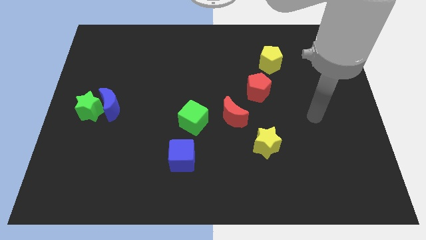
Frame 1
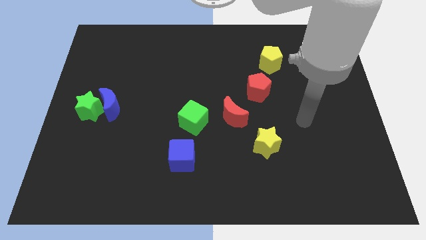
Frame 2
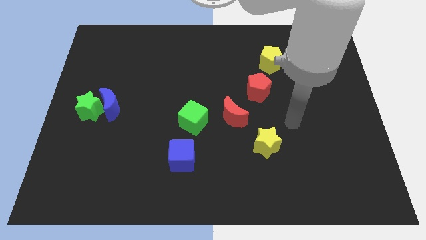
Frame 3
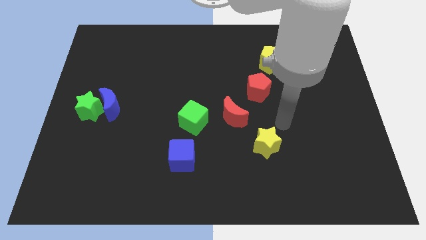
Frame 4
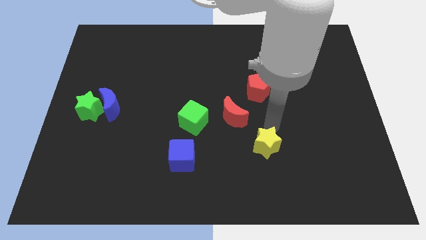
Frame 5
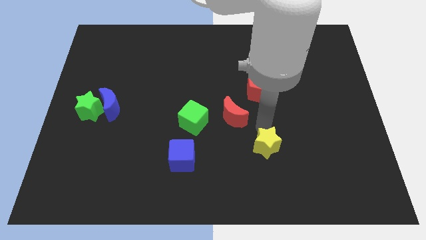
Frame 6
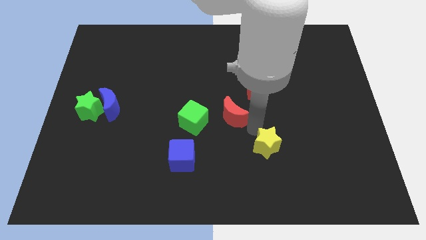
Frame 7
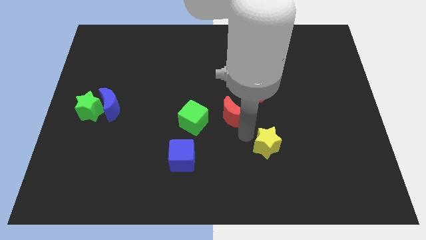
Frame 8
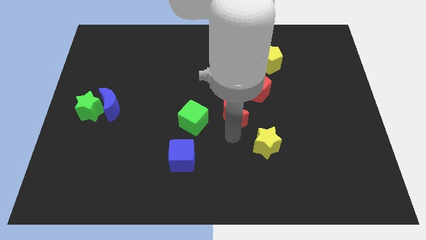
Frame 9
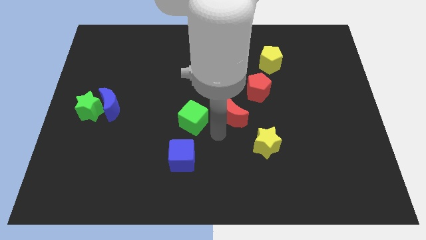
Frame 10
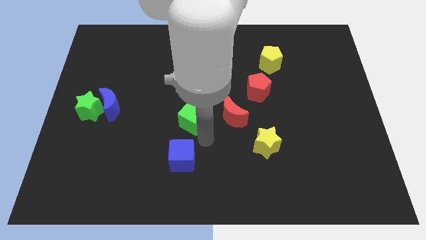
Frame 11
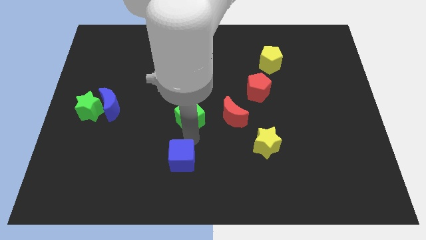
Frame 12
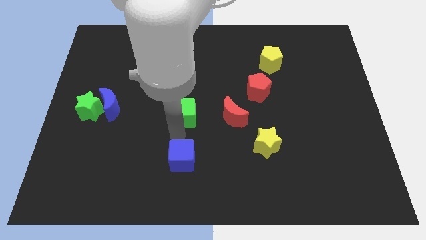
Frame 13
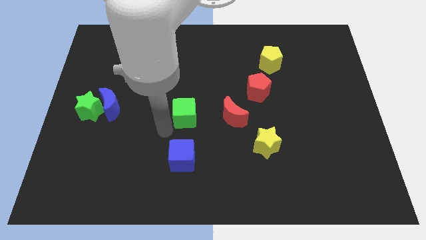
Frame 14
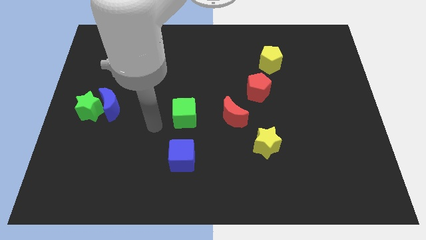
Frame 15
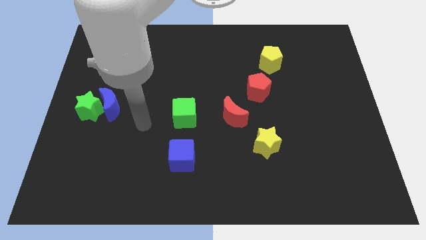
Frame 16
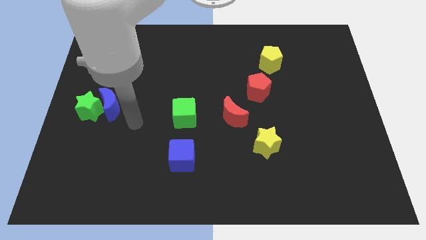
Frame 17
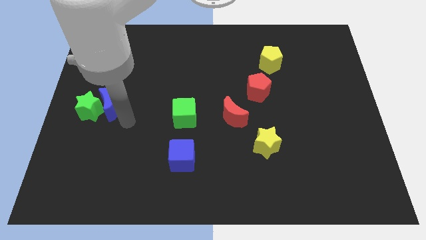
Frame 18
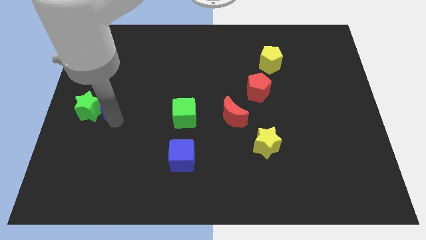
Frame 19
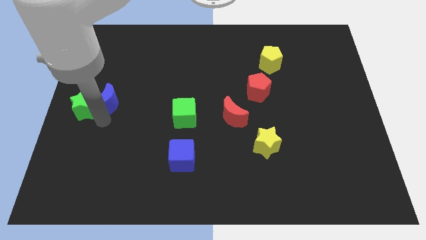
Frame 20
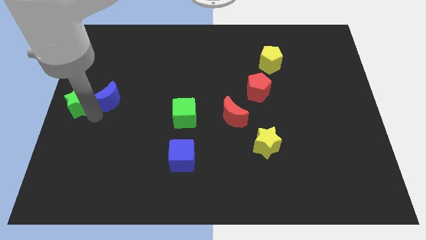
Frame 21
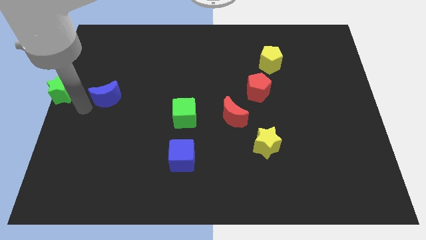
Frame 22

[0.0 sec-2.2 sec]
move the blue moon away from the green star

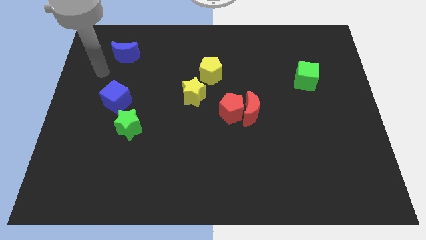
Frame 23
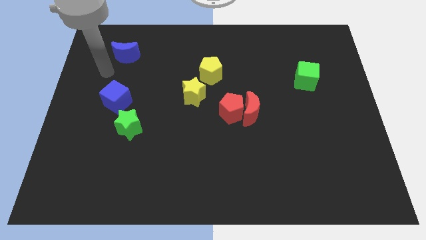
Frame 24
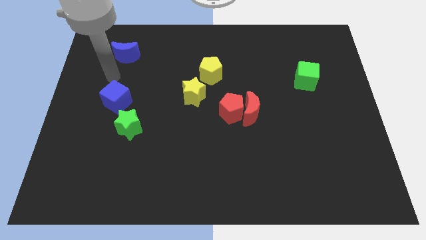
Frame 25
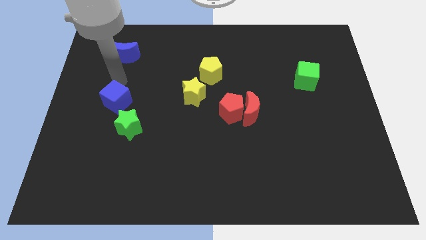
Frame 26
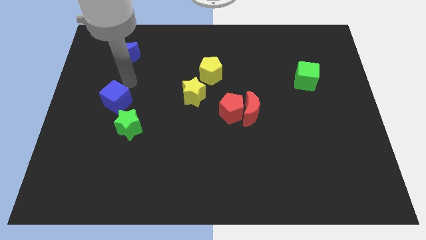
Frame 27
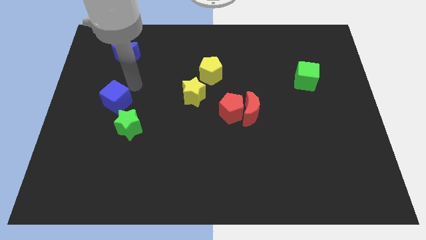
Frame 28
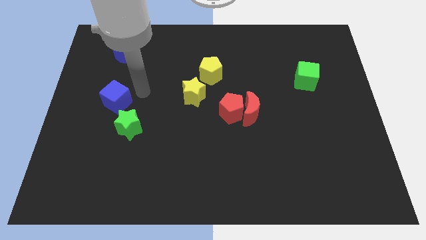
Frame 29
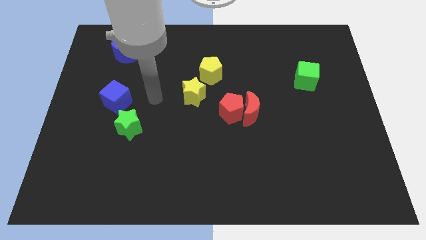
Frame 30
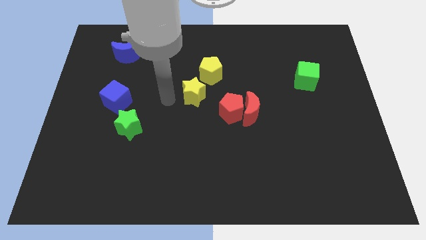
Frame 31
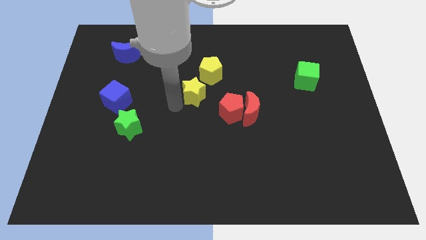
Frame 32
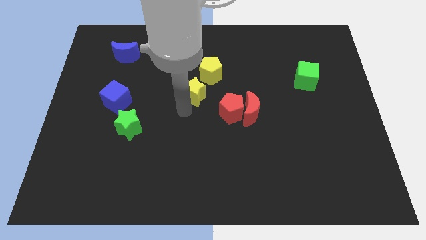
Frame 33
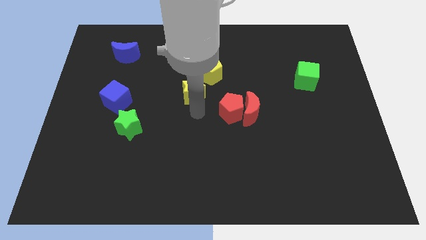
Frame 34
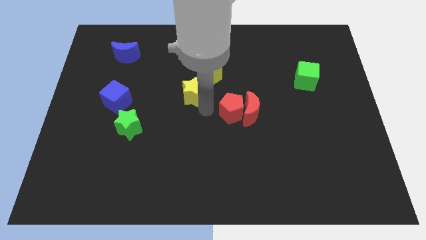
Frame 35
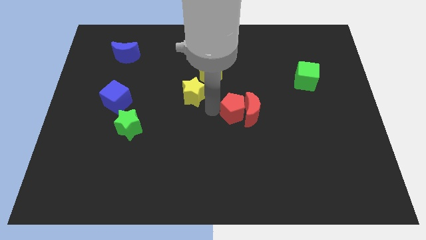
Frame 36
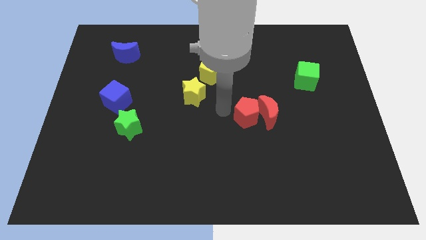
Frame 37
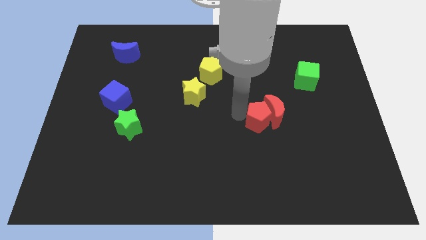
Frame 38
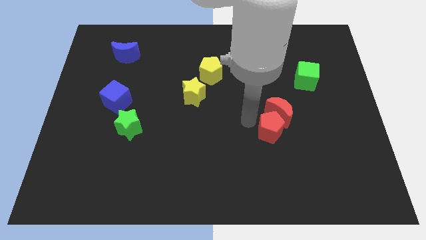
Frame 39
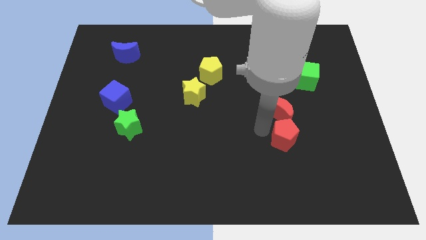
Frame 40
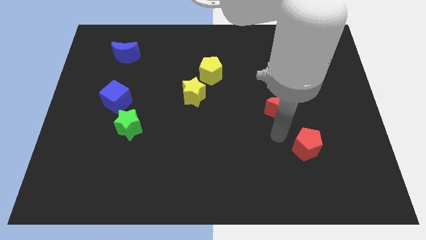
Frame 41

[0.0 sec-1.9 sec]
separate the red moon from the red pentagon

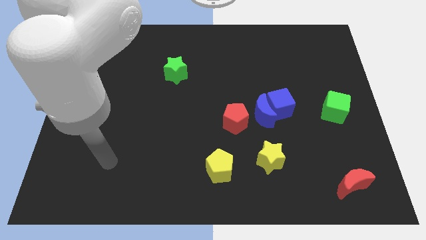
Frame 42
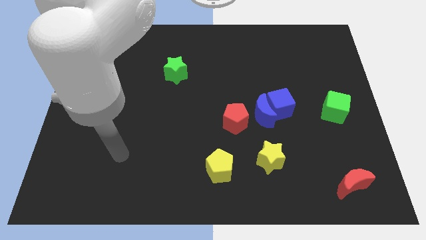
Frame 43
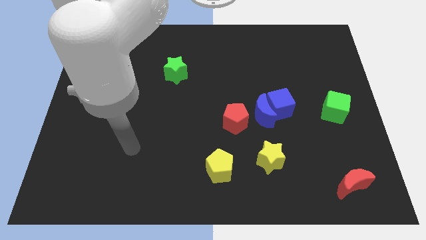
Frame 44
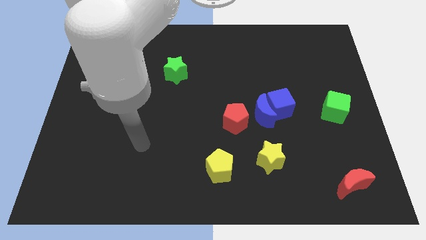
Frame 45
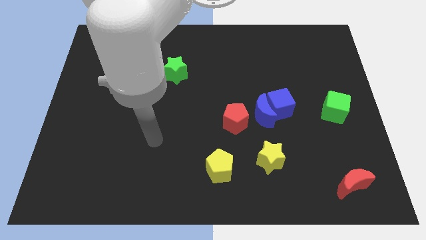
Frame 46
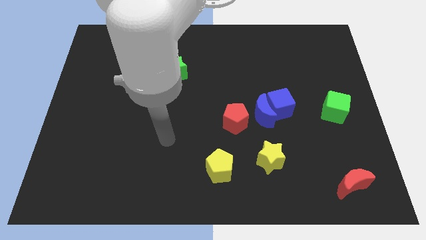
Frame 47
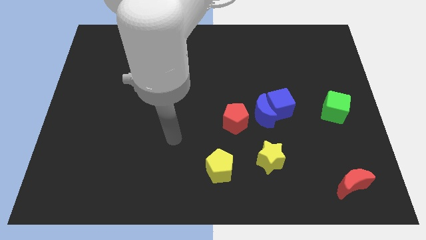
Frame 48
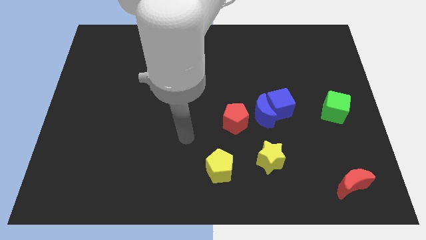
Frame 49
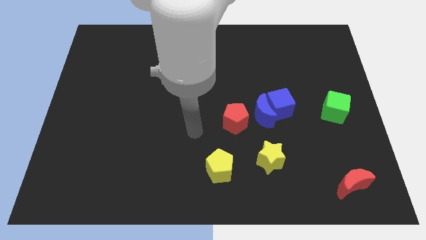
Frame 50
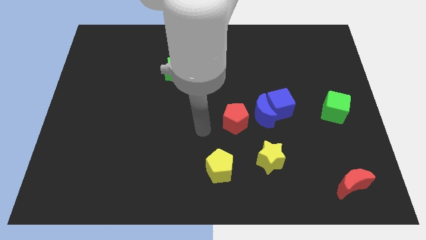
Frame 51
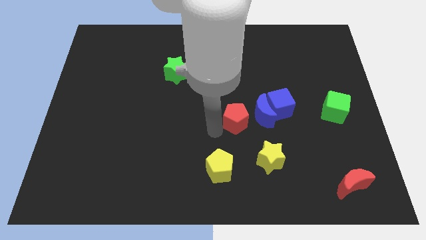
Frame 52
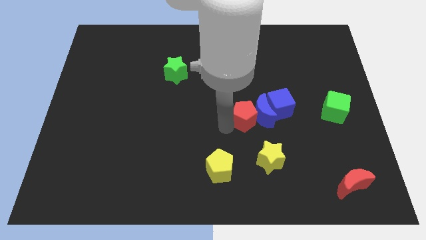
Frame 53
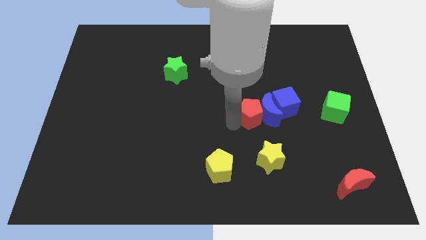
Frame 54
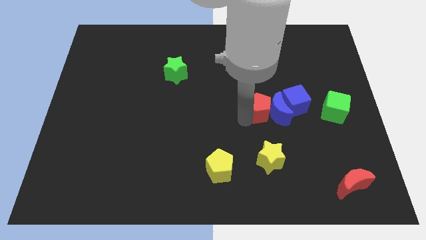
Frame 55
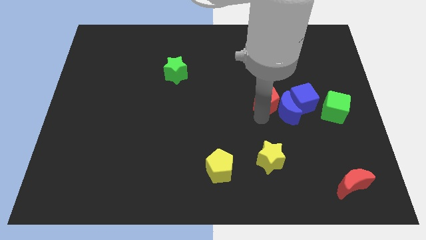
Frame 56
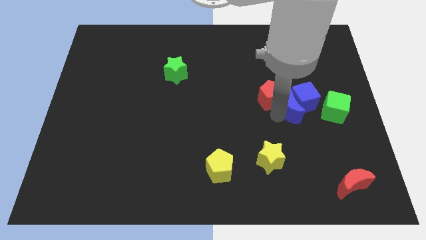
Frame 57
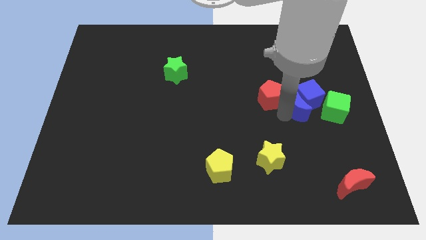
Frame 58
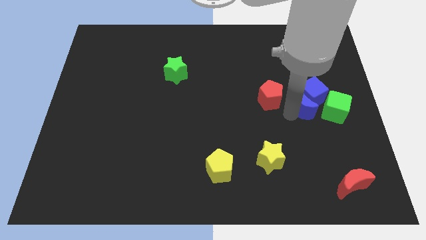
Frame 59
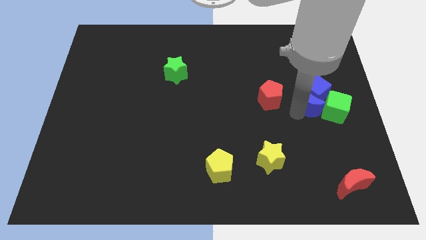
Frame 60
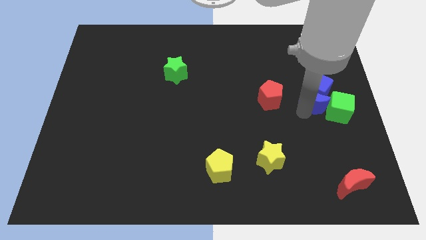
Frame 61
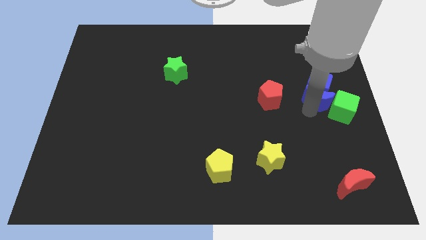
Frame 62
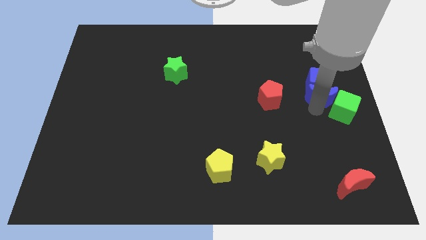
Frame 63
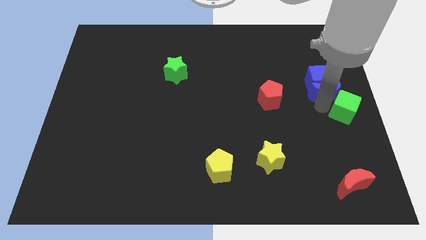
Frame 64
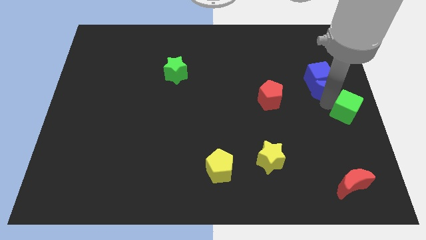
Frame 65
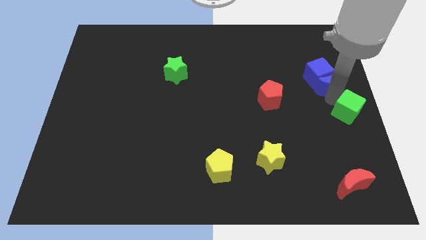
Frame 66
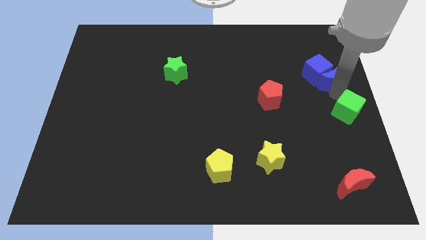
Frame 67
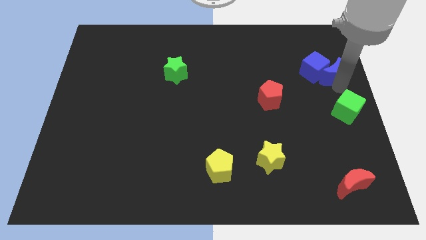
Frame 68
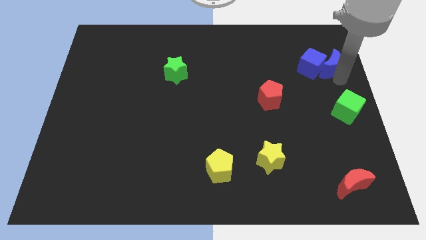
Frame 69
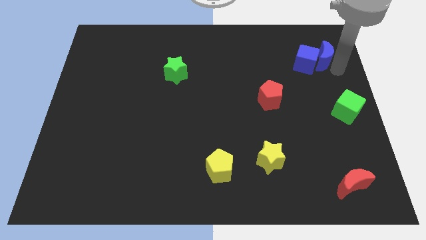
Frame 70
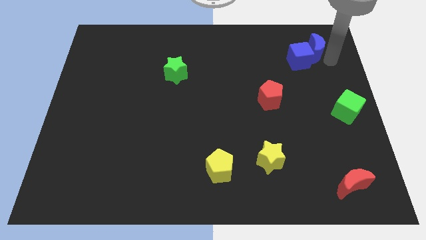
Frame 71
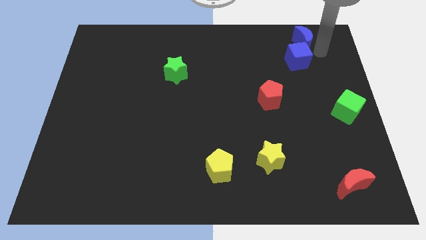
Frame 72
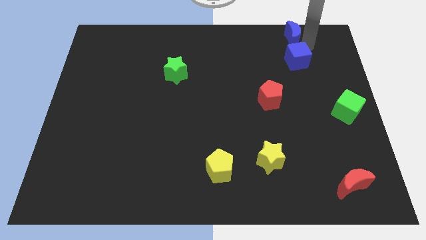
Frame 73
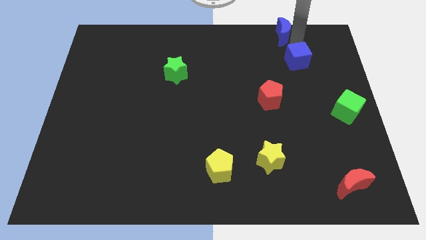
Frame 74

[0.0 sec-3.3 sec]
pull the blue cube apart from the blue moon

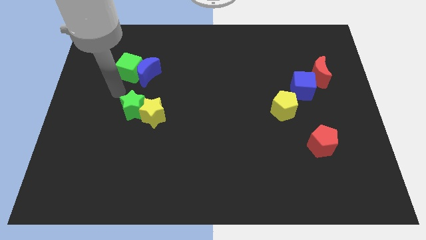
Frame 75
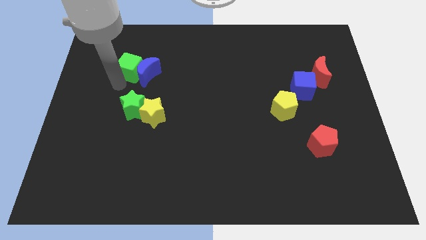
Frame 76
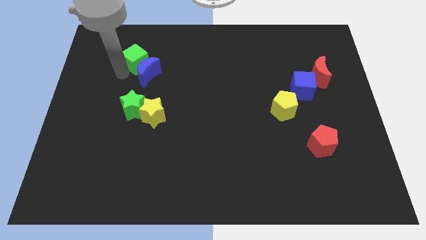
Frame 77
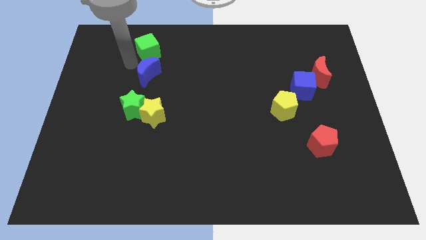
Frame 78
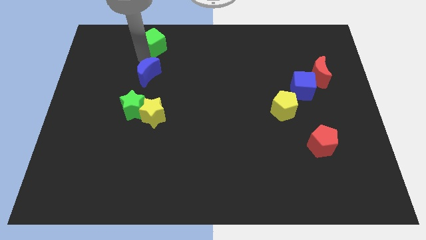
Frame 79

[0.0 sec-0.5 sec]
separate the blue moon from the green cube

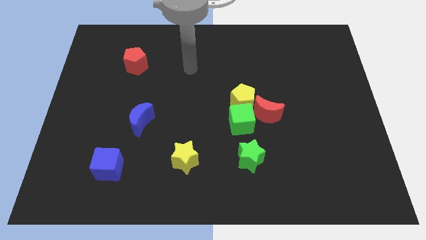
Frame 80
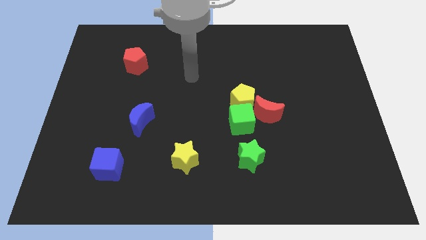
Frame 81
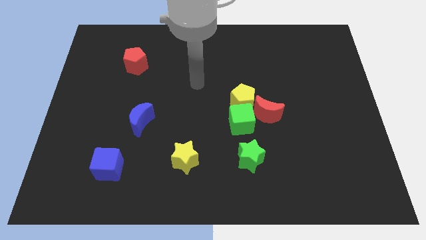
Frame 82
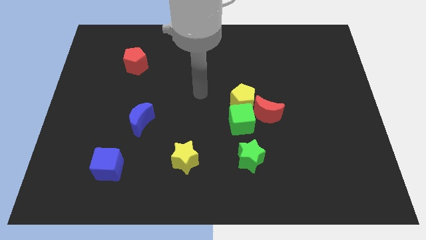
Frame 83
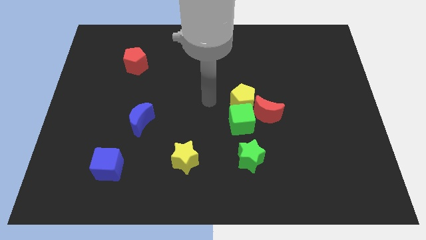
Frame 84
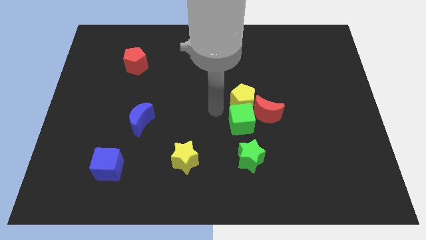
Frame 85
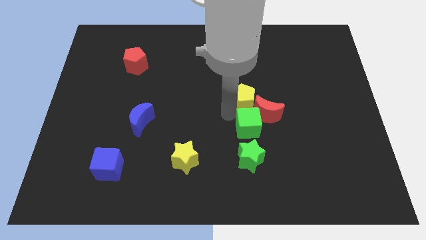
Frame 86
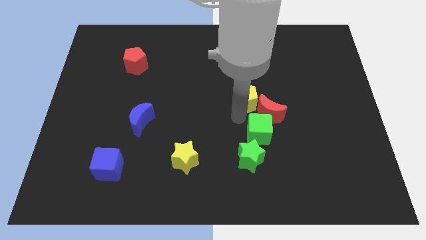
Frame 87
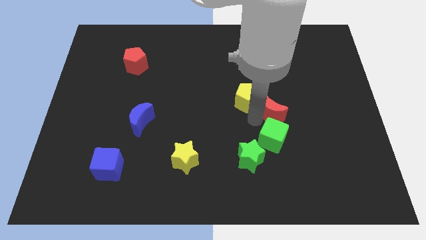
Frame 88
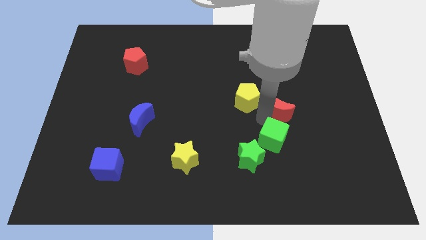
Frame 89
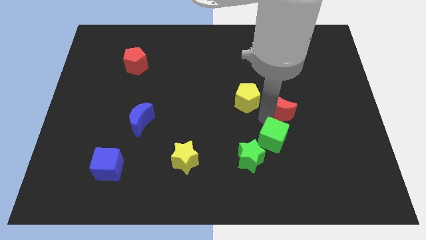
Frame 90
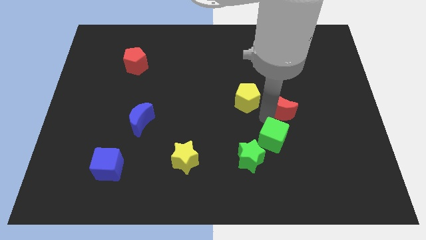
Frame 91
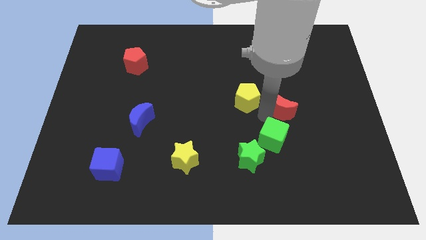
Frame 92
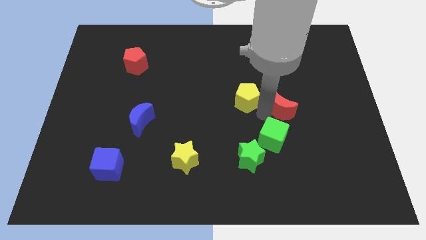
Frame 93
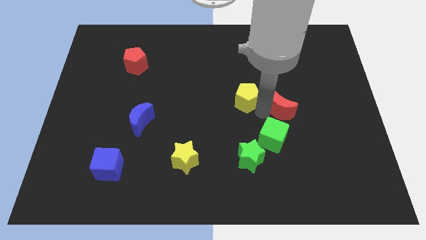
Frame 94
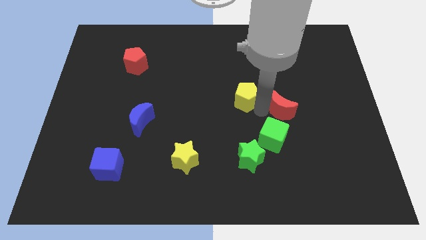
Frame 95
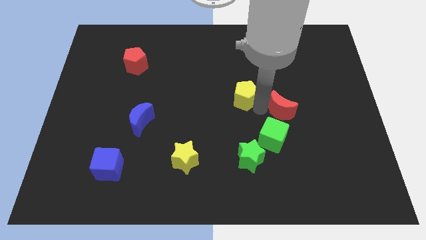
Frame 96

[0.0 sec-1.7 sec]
separate the yellow pentagon from the green cube and red moon
